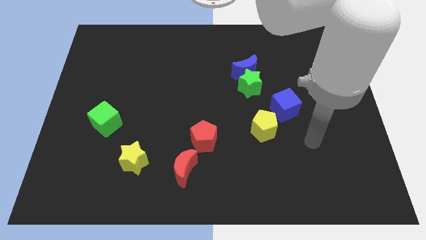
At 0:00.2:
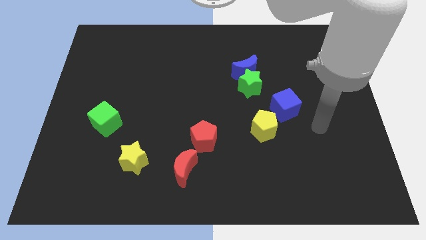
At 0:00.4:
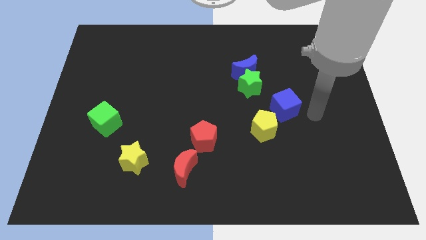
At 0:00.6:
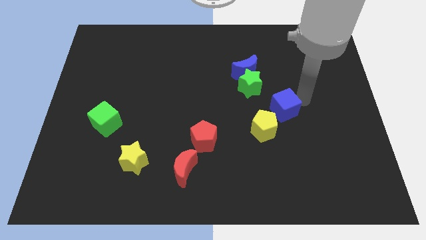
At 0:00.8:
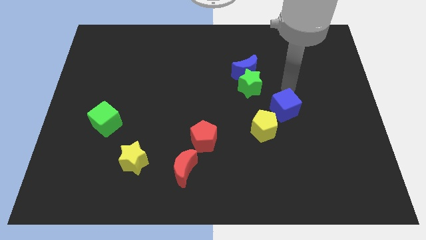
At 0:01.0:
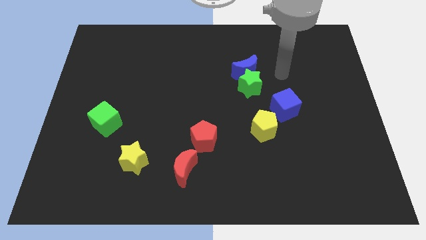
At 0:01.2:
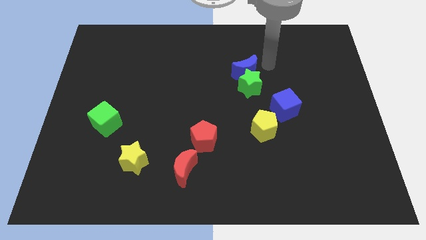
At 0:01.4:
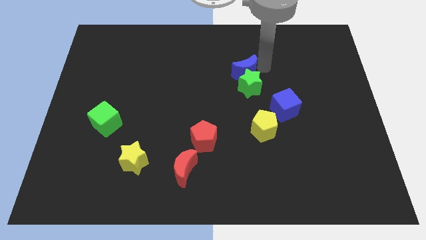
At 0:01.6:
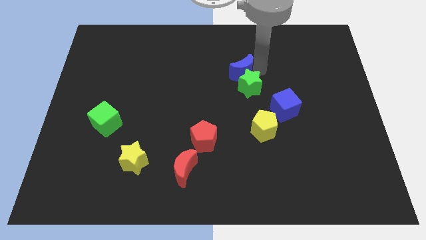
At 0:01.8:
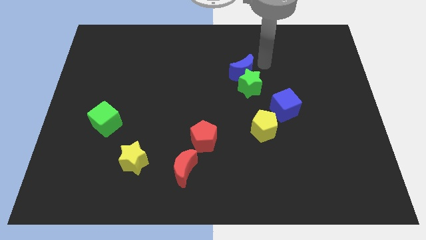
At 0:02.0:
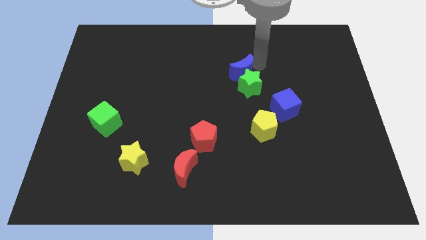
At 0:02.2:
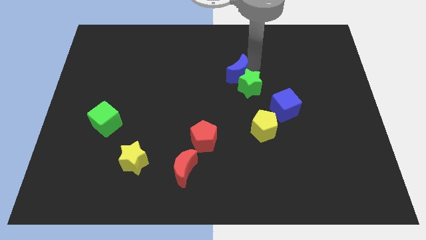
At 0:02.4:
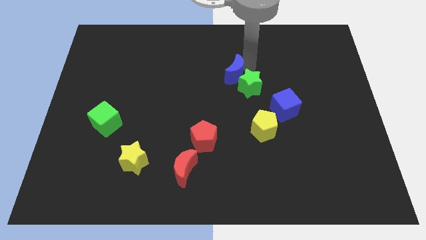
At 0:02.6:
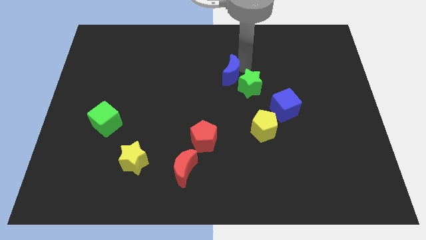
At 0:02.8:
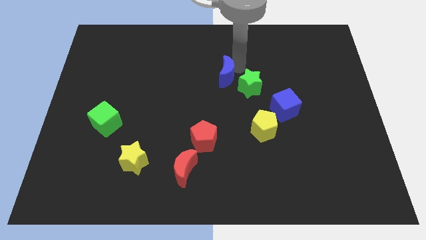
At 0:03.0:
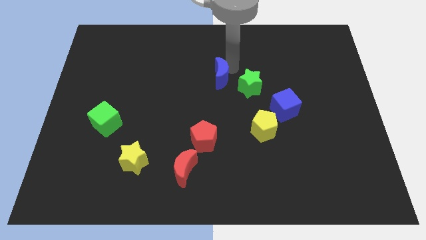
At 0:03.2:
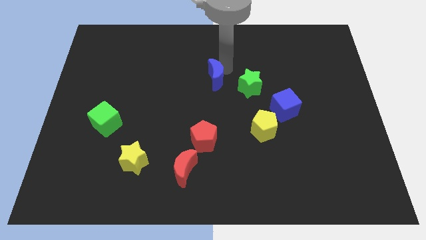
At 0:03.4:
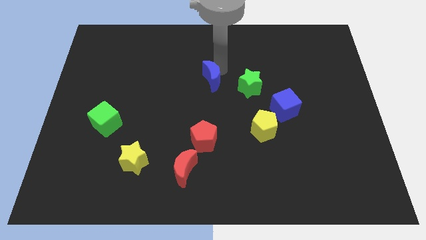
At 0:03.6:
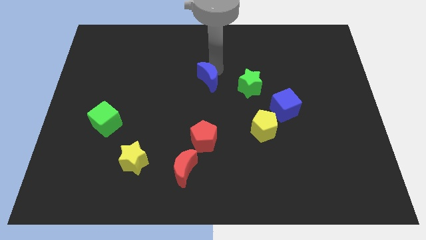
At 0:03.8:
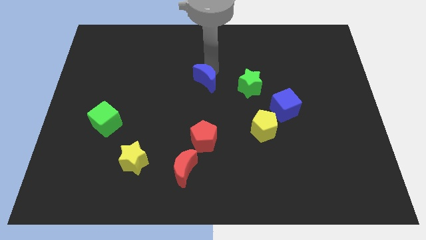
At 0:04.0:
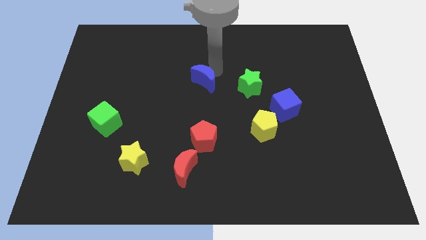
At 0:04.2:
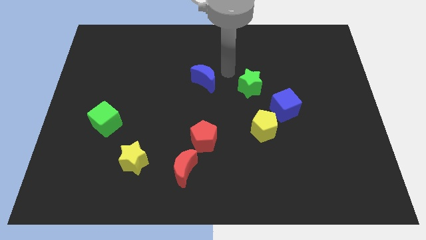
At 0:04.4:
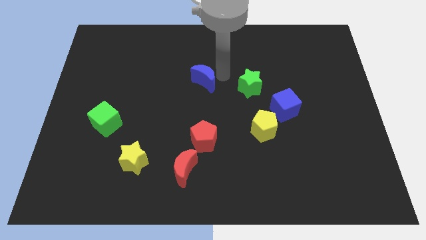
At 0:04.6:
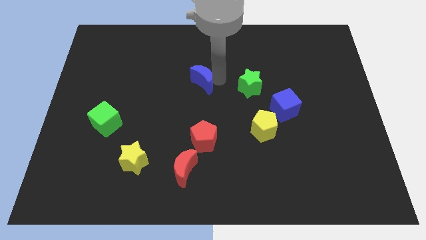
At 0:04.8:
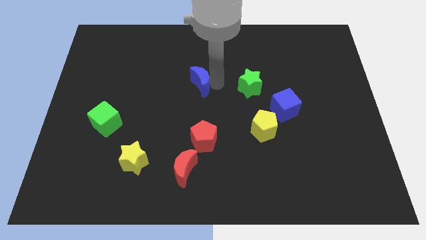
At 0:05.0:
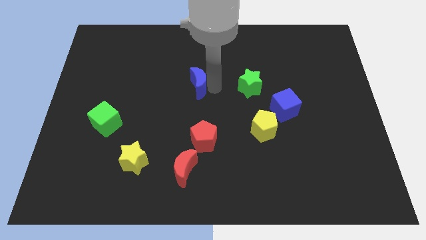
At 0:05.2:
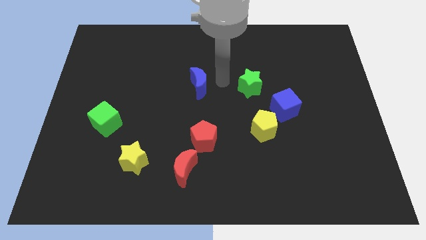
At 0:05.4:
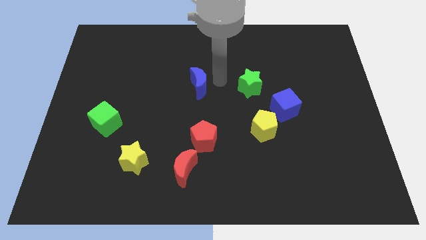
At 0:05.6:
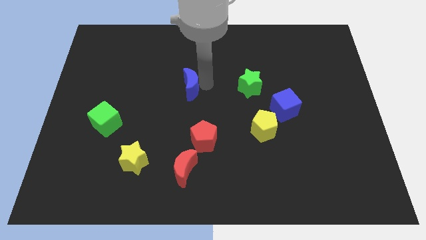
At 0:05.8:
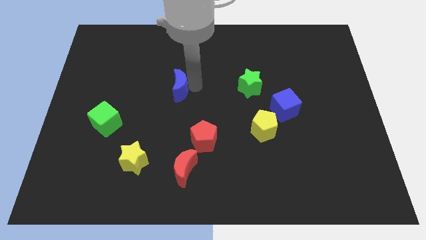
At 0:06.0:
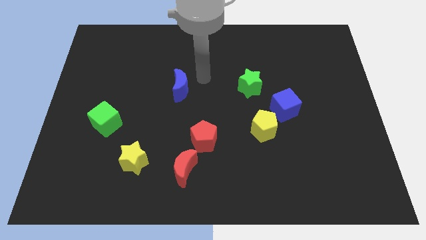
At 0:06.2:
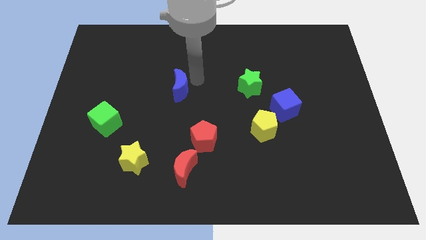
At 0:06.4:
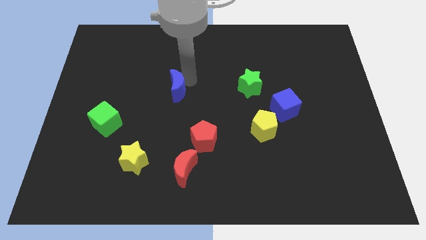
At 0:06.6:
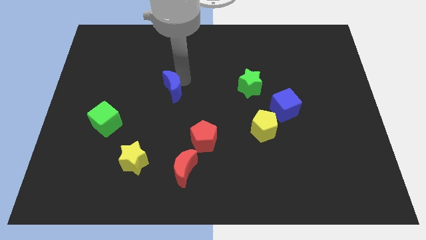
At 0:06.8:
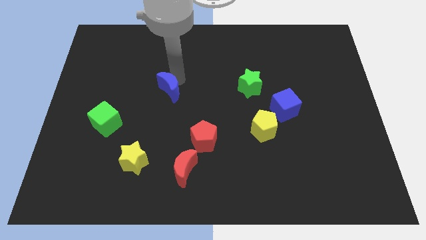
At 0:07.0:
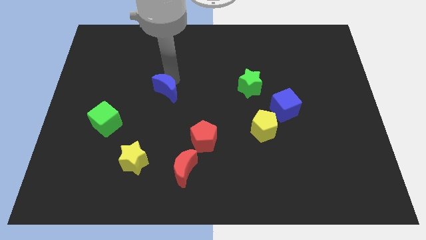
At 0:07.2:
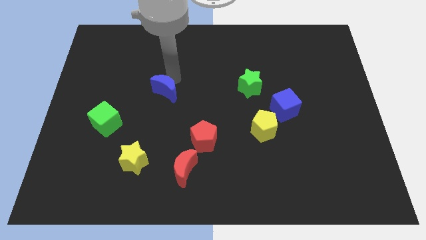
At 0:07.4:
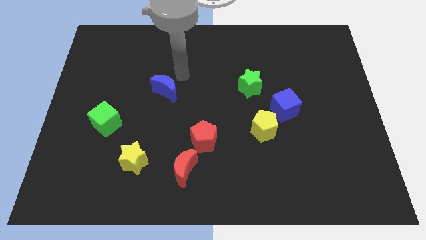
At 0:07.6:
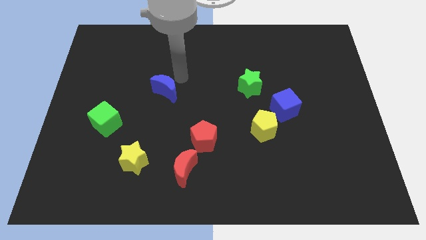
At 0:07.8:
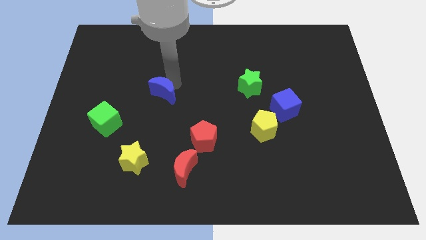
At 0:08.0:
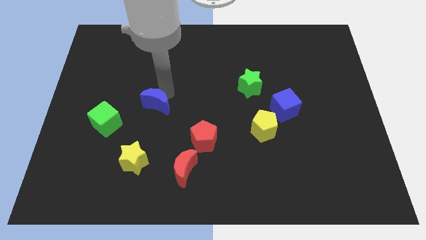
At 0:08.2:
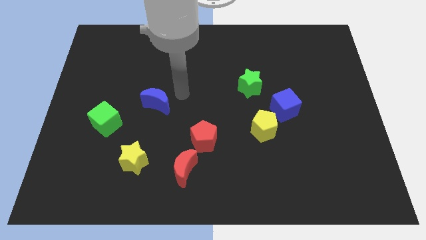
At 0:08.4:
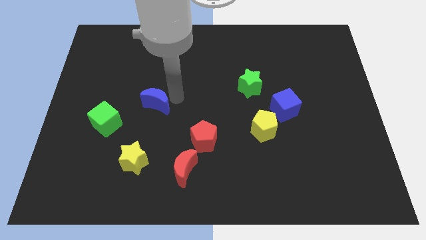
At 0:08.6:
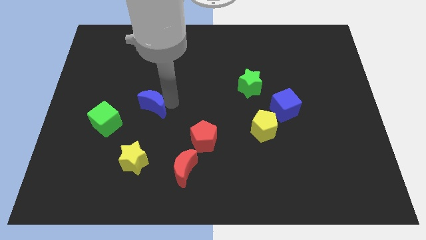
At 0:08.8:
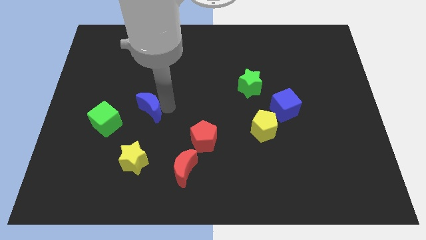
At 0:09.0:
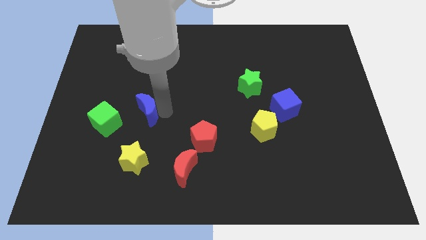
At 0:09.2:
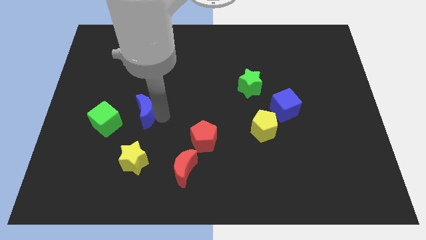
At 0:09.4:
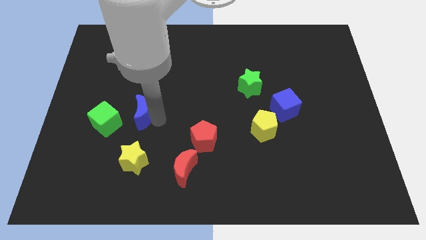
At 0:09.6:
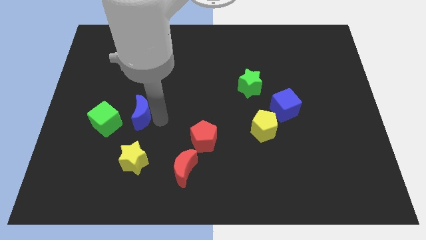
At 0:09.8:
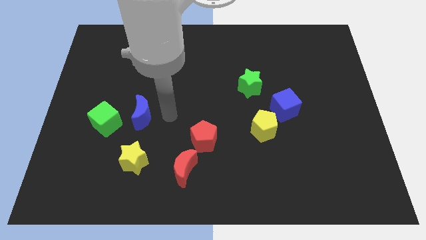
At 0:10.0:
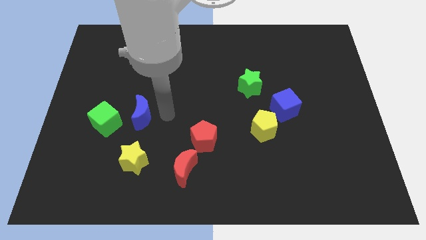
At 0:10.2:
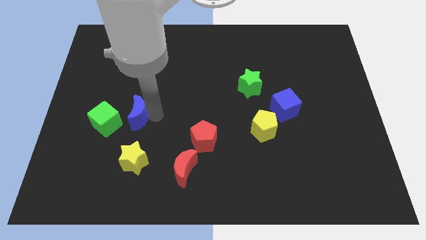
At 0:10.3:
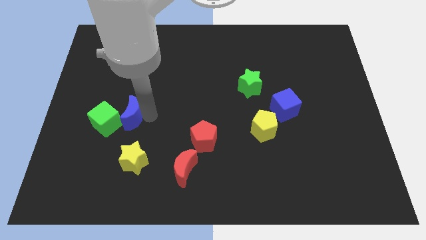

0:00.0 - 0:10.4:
slide the blue moon next to the green cube

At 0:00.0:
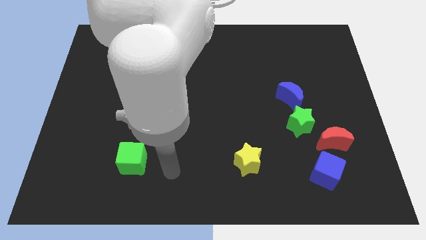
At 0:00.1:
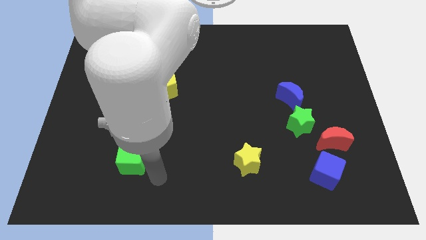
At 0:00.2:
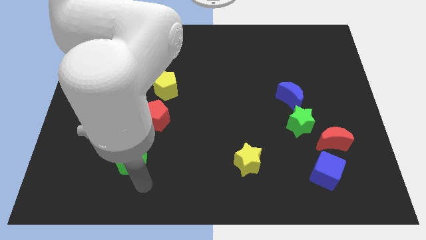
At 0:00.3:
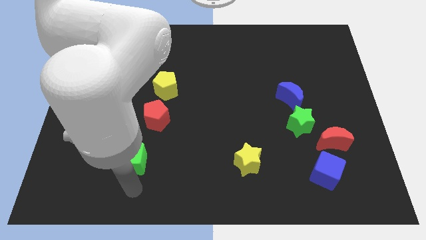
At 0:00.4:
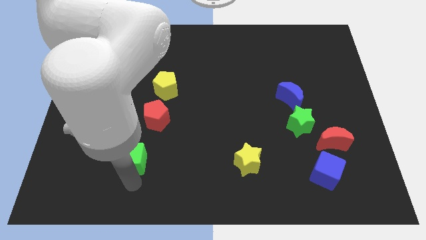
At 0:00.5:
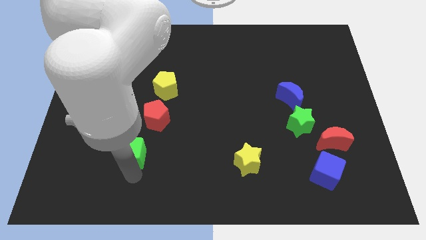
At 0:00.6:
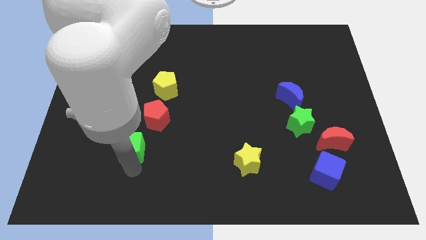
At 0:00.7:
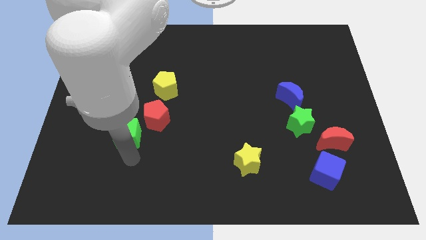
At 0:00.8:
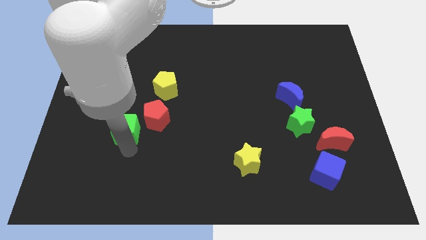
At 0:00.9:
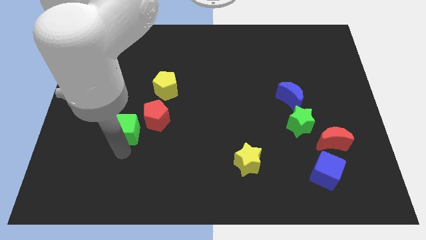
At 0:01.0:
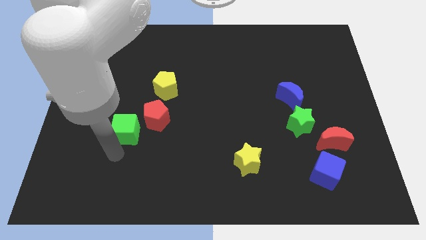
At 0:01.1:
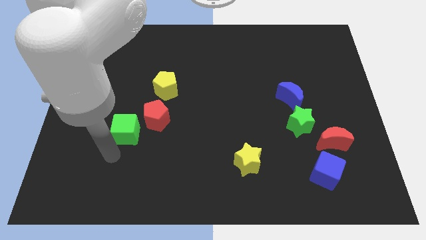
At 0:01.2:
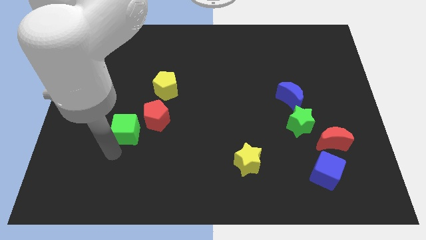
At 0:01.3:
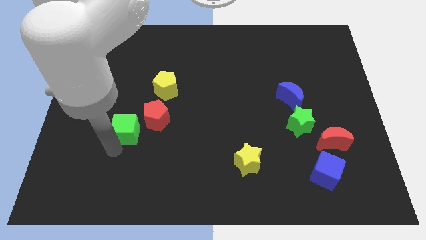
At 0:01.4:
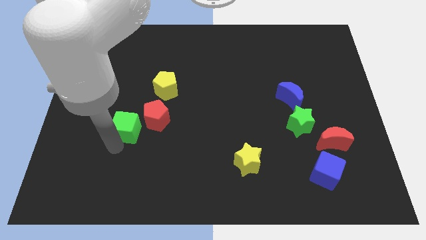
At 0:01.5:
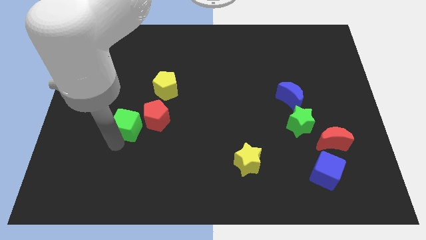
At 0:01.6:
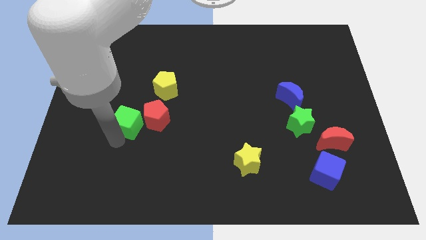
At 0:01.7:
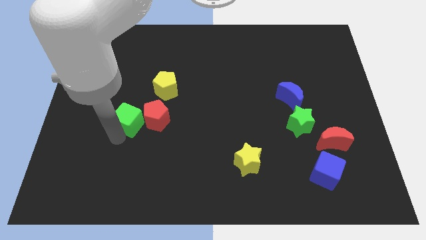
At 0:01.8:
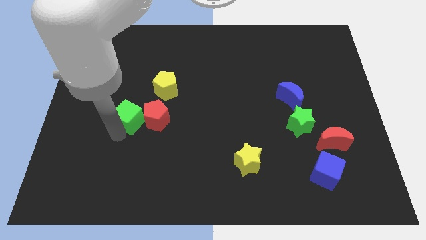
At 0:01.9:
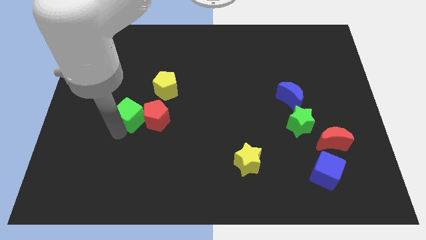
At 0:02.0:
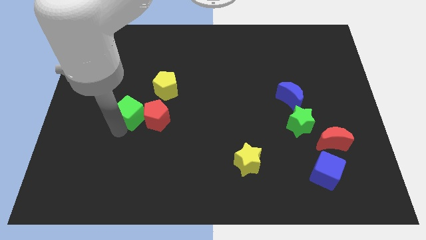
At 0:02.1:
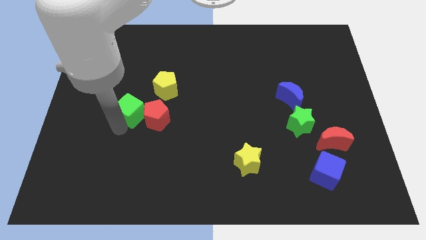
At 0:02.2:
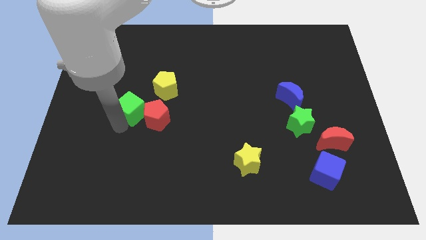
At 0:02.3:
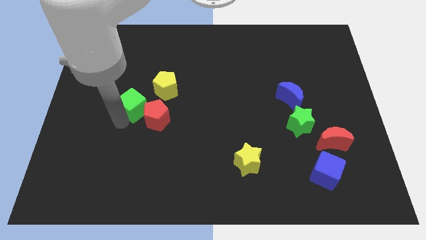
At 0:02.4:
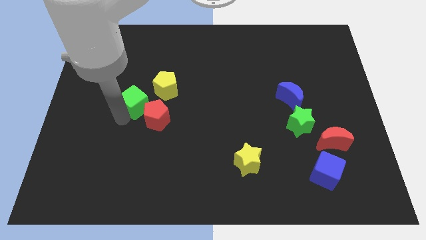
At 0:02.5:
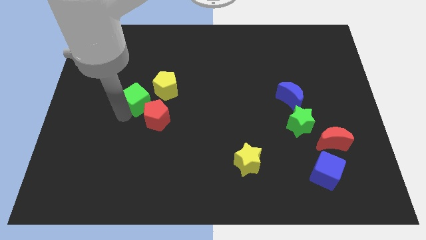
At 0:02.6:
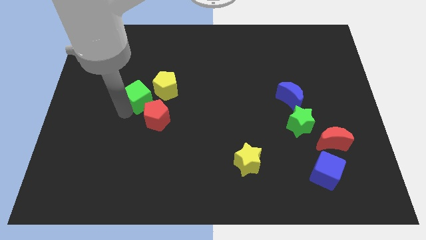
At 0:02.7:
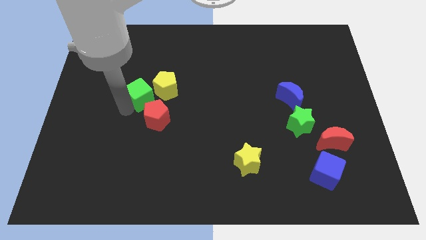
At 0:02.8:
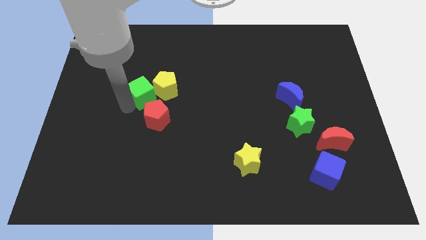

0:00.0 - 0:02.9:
push the green cube next to the yellow pentagon
